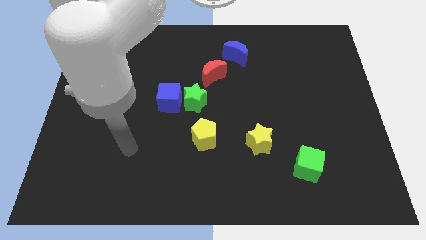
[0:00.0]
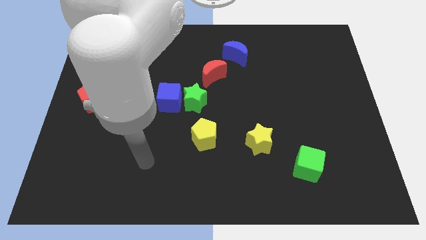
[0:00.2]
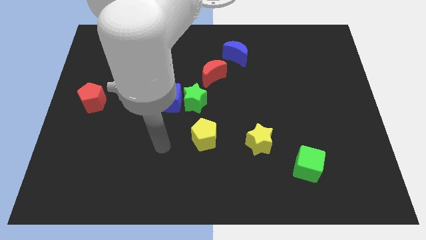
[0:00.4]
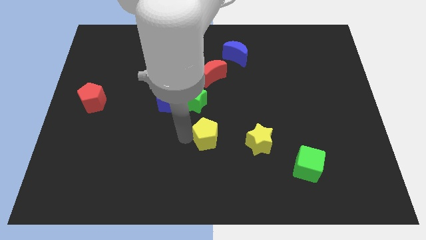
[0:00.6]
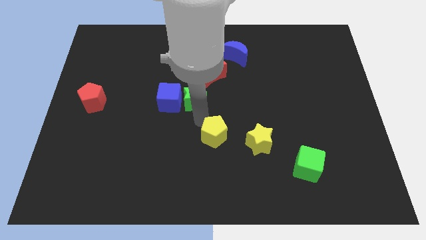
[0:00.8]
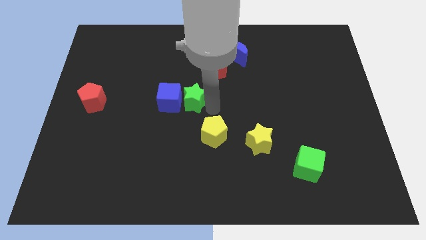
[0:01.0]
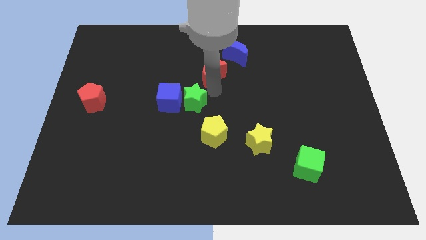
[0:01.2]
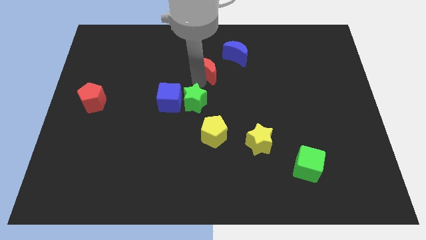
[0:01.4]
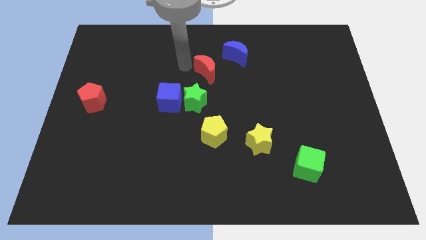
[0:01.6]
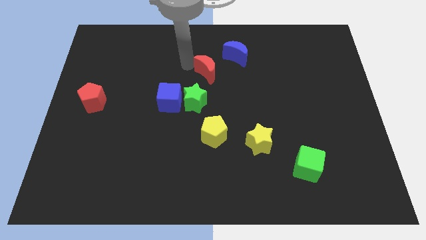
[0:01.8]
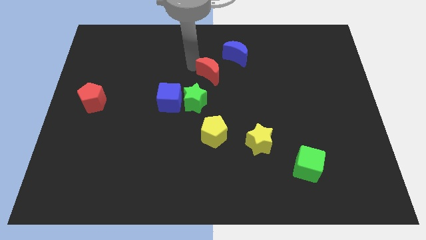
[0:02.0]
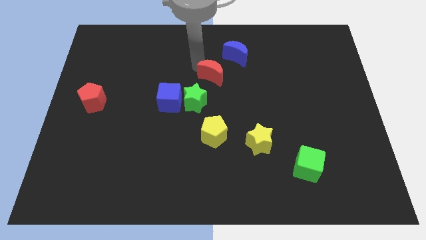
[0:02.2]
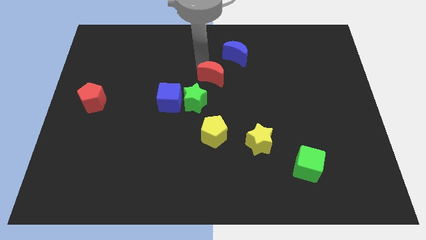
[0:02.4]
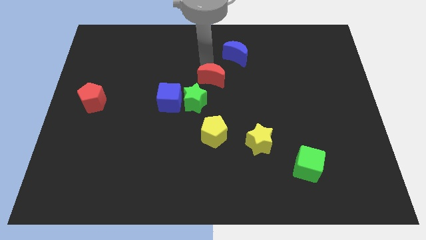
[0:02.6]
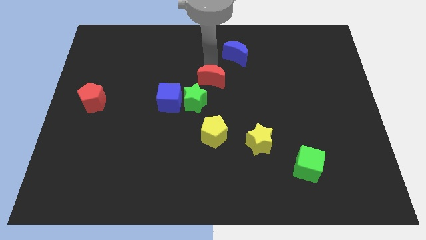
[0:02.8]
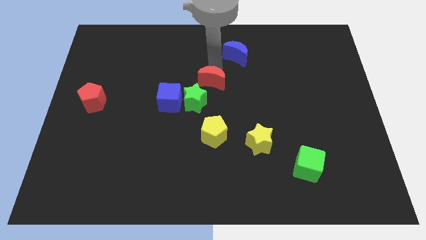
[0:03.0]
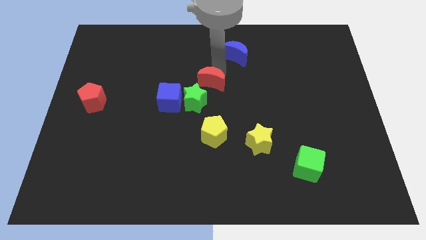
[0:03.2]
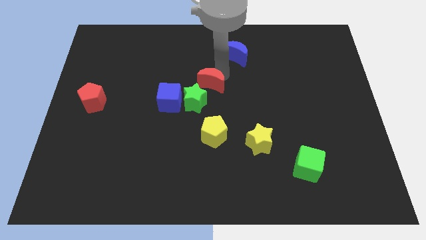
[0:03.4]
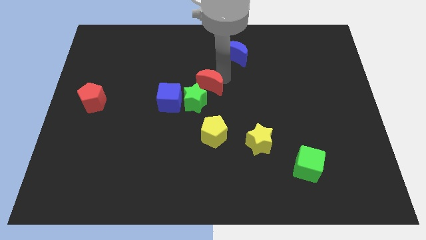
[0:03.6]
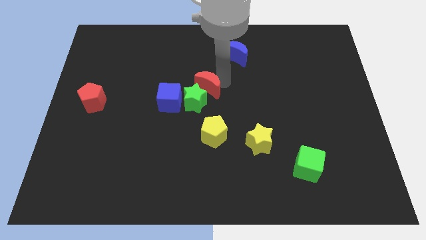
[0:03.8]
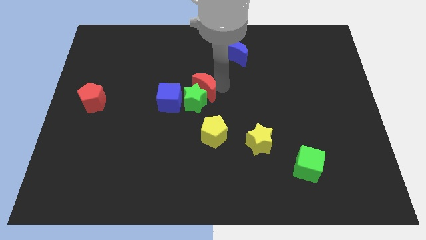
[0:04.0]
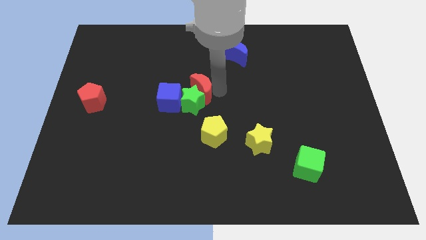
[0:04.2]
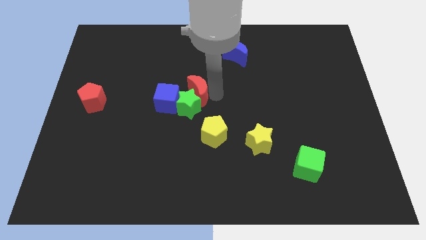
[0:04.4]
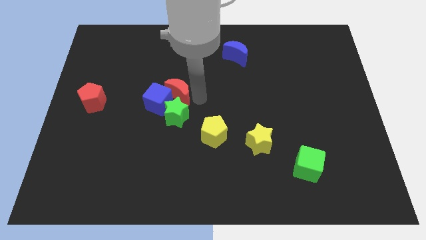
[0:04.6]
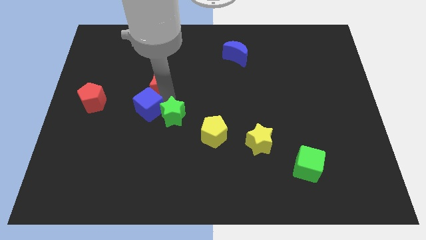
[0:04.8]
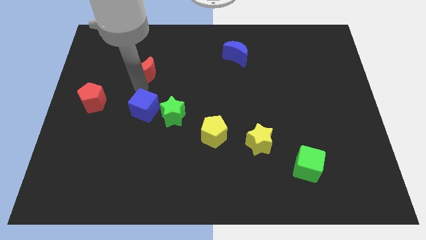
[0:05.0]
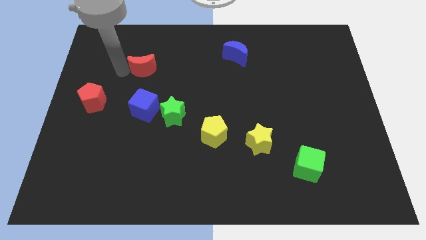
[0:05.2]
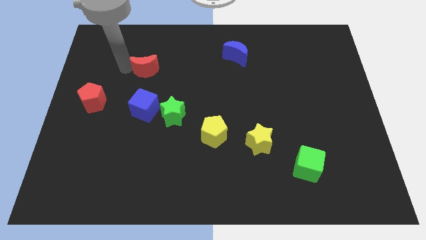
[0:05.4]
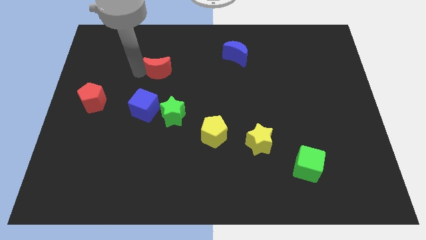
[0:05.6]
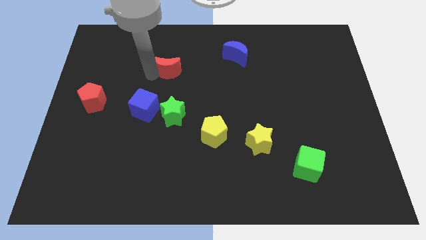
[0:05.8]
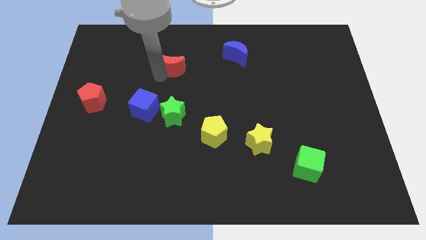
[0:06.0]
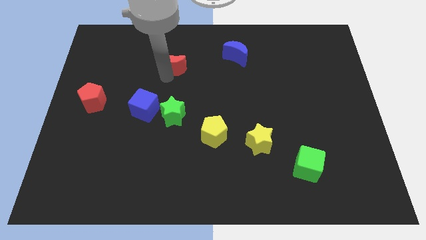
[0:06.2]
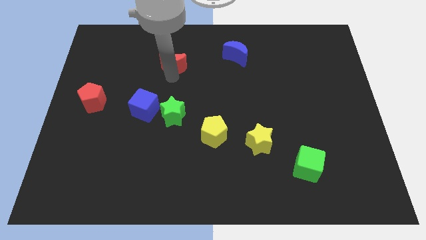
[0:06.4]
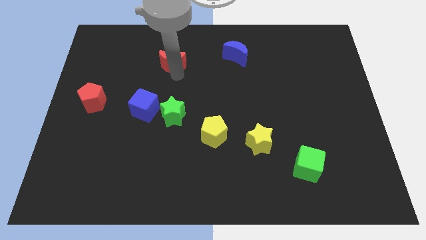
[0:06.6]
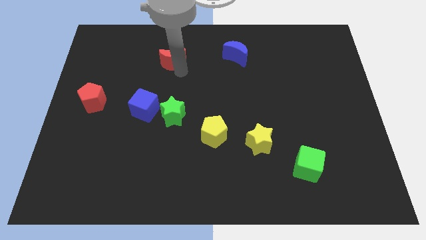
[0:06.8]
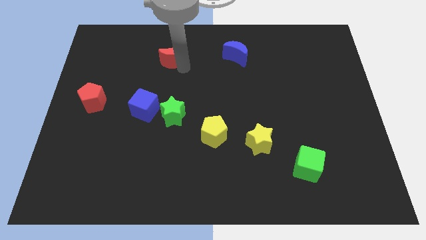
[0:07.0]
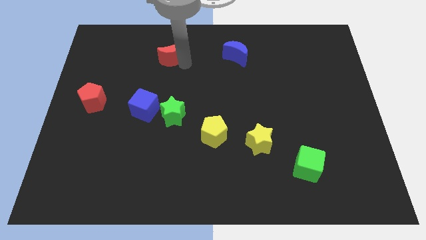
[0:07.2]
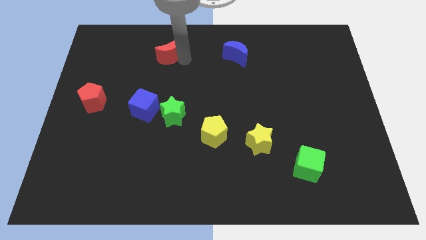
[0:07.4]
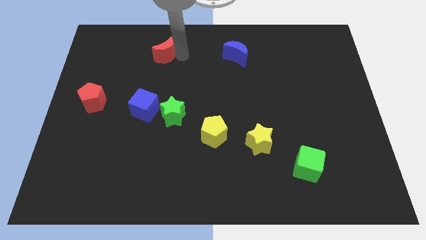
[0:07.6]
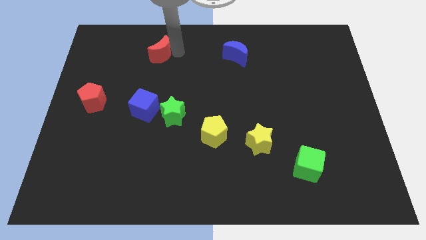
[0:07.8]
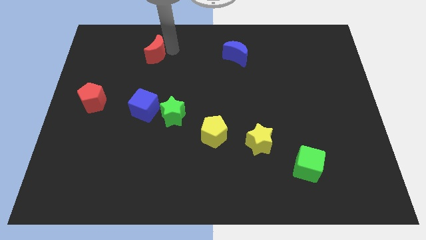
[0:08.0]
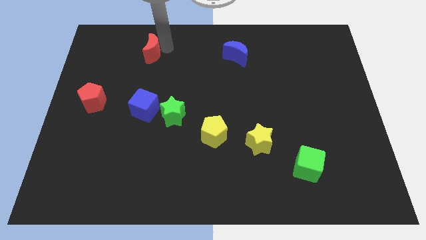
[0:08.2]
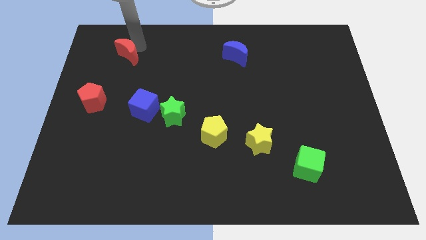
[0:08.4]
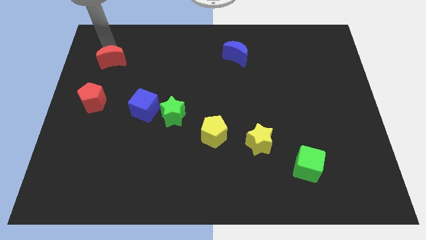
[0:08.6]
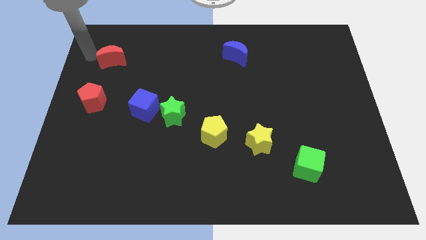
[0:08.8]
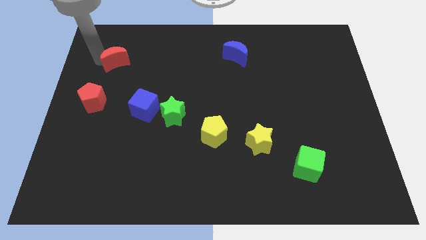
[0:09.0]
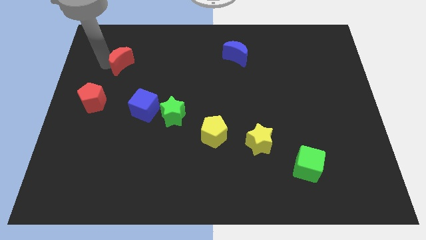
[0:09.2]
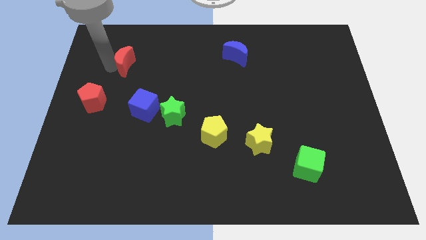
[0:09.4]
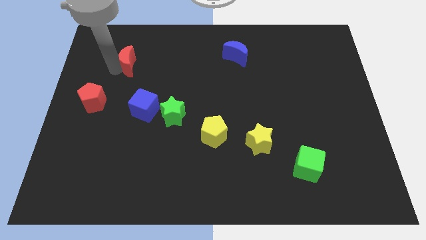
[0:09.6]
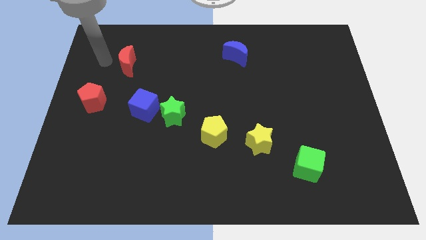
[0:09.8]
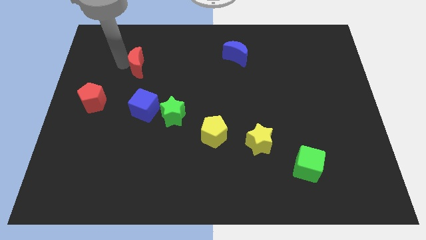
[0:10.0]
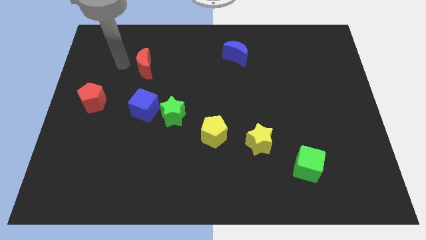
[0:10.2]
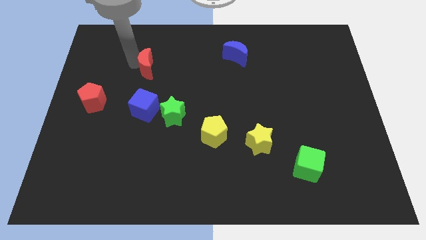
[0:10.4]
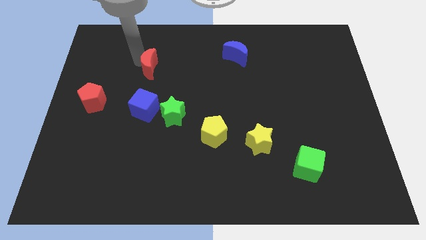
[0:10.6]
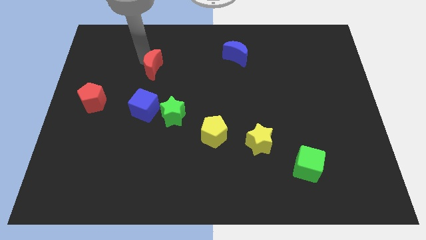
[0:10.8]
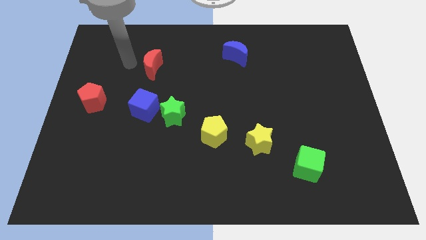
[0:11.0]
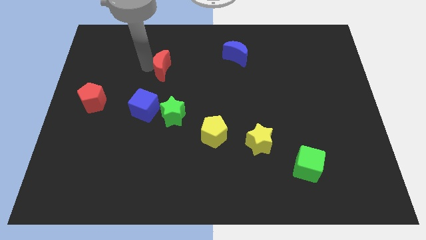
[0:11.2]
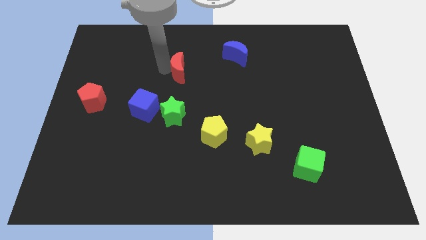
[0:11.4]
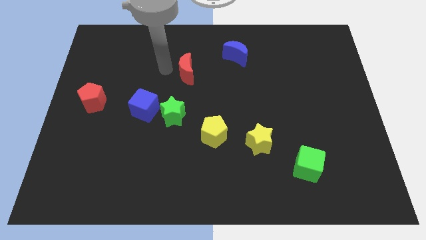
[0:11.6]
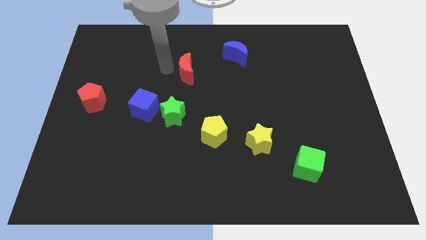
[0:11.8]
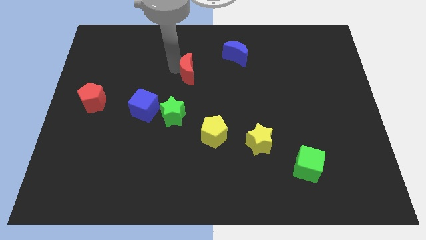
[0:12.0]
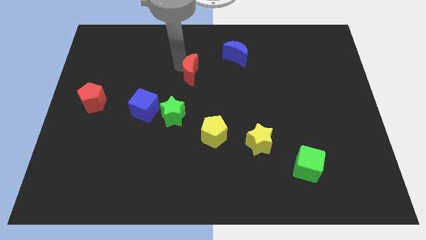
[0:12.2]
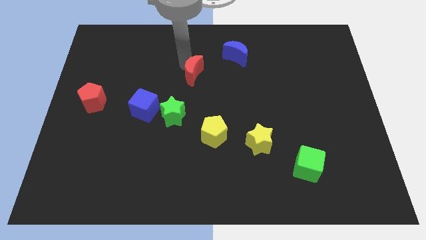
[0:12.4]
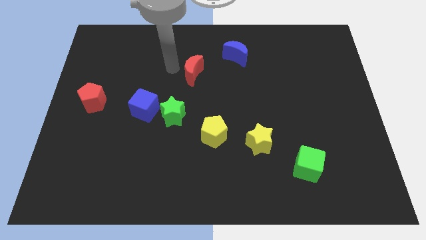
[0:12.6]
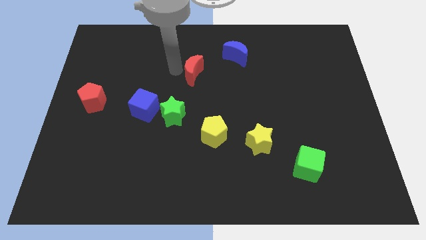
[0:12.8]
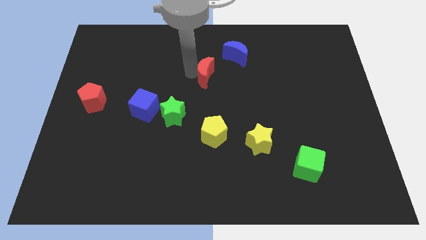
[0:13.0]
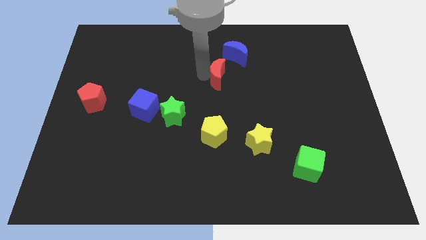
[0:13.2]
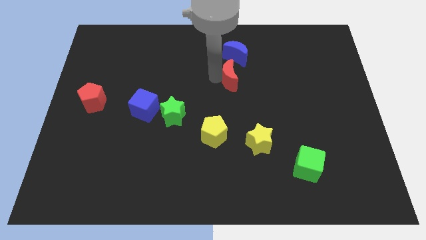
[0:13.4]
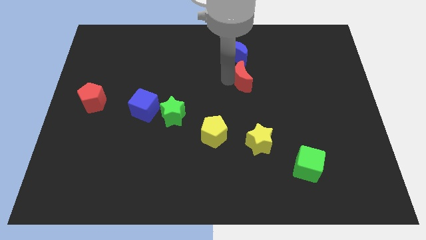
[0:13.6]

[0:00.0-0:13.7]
push the red moon right a bit

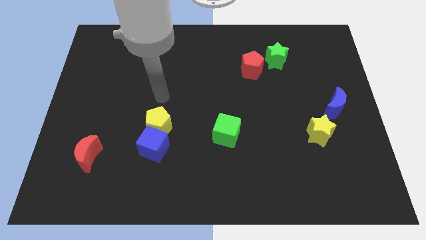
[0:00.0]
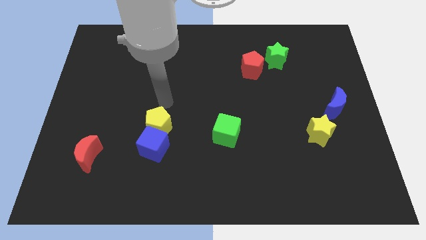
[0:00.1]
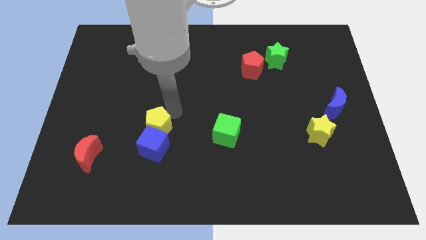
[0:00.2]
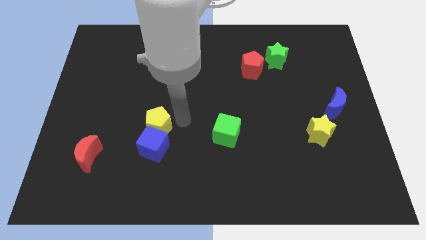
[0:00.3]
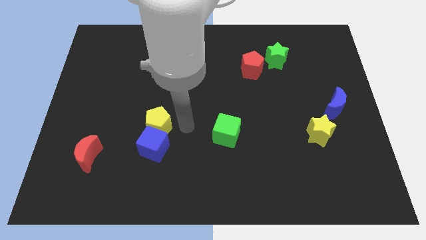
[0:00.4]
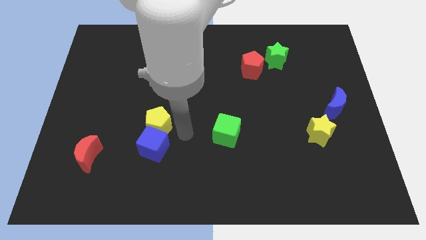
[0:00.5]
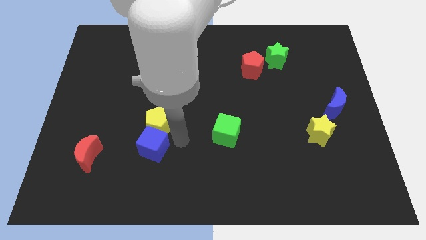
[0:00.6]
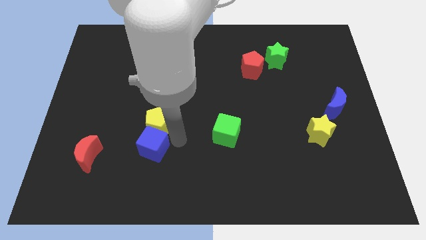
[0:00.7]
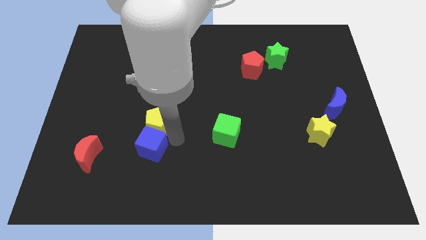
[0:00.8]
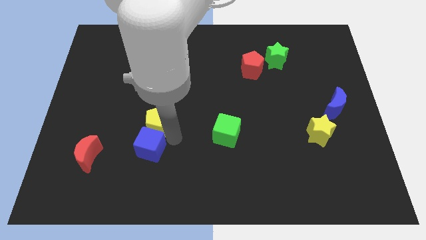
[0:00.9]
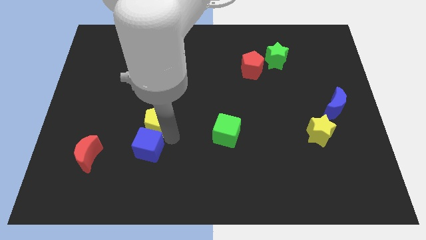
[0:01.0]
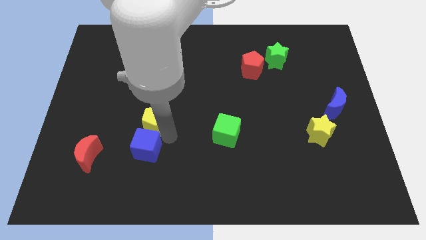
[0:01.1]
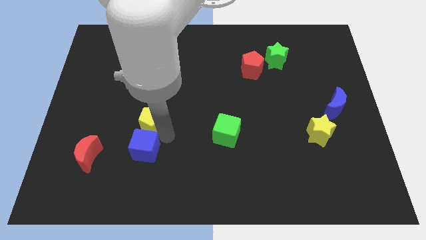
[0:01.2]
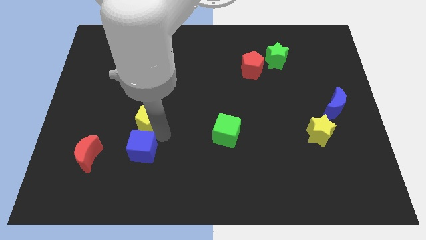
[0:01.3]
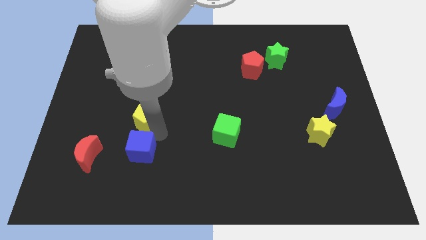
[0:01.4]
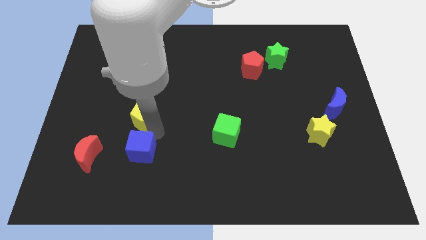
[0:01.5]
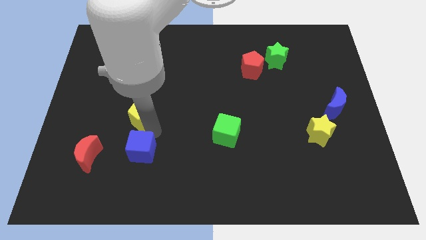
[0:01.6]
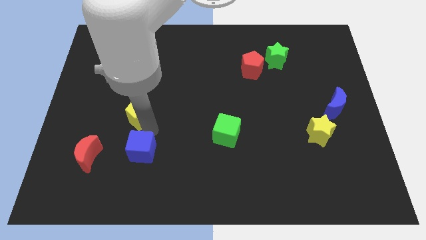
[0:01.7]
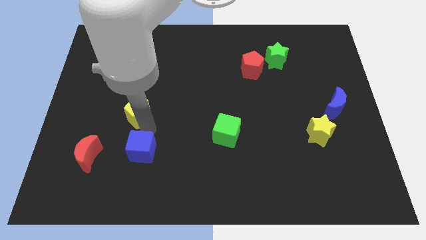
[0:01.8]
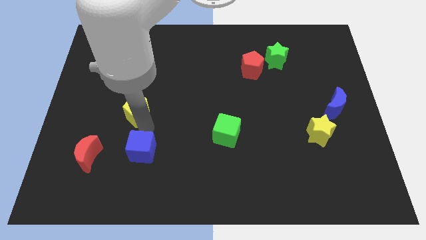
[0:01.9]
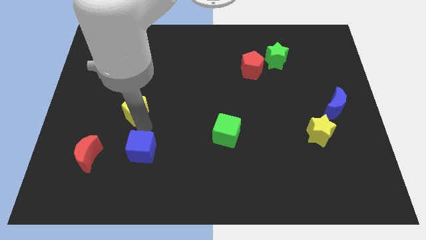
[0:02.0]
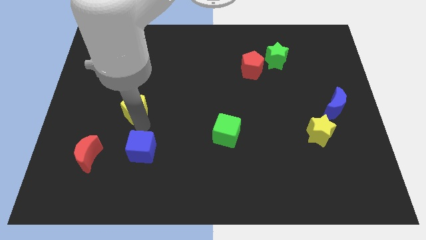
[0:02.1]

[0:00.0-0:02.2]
slide the yellow pentagon upwards and to the left slightly
